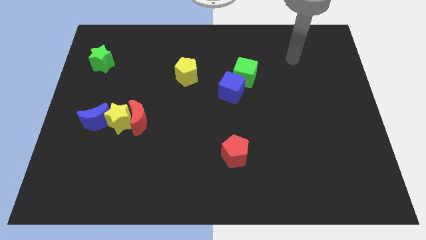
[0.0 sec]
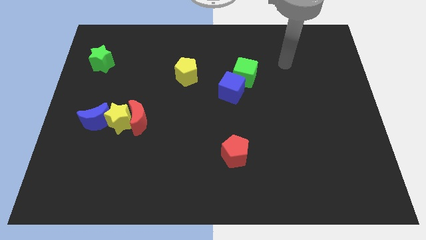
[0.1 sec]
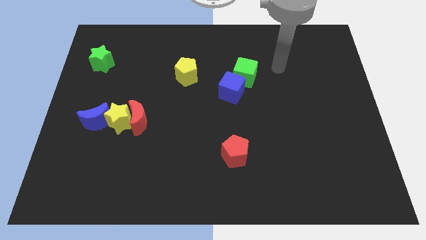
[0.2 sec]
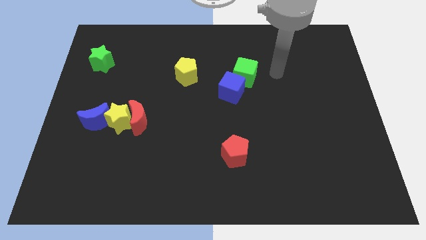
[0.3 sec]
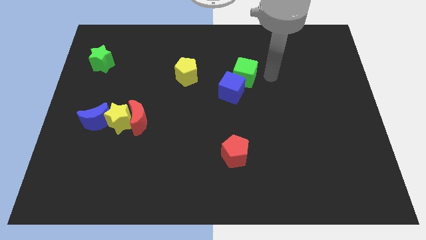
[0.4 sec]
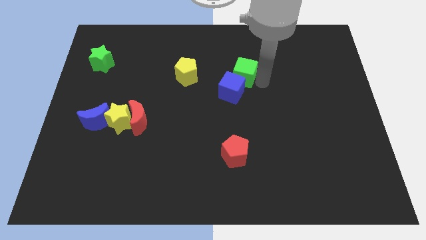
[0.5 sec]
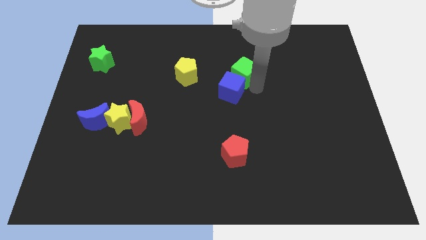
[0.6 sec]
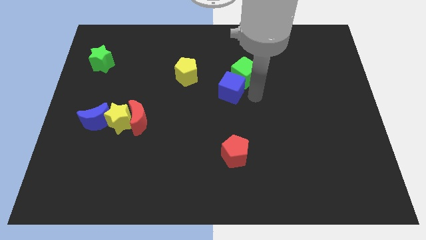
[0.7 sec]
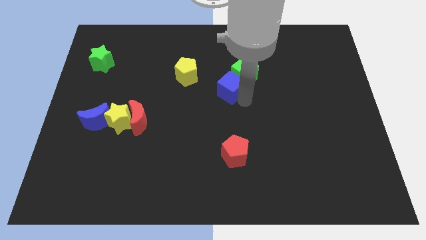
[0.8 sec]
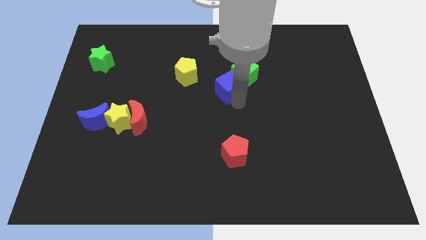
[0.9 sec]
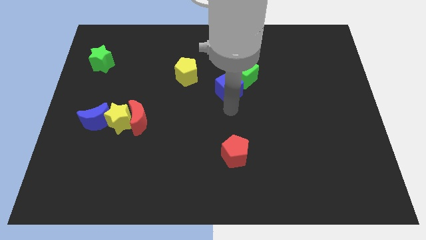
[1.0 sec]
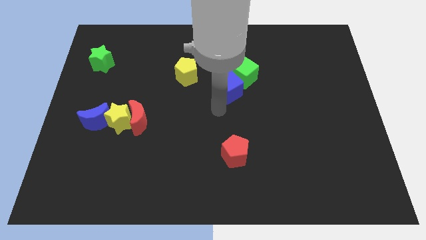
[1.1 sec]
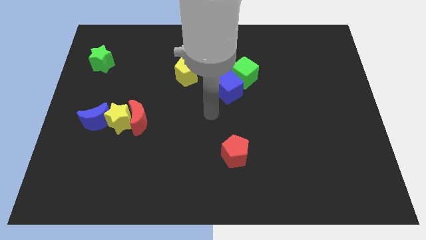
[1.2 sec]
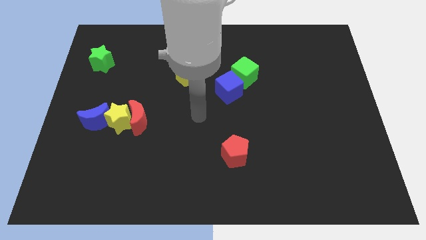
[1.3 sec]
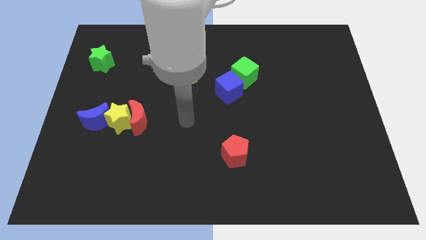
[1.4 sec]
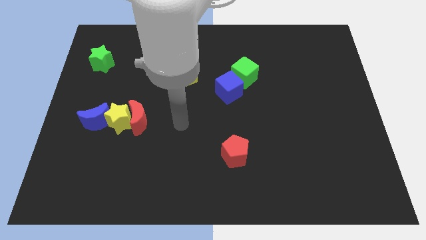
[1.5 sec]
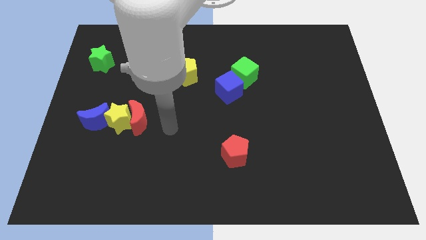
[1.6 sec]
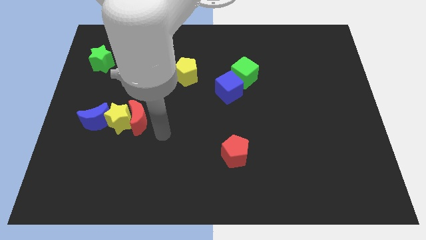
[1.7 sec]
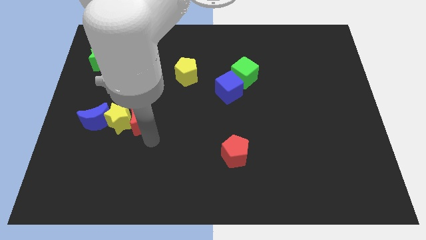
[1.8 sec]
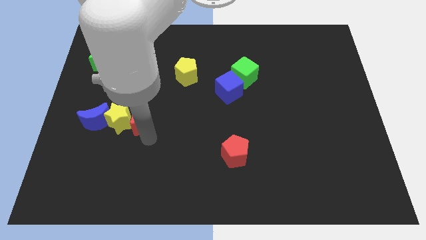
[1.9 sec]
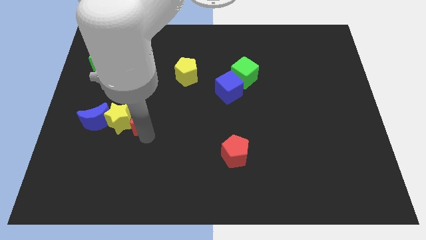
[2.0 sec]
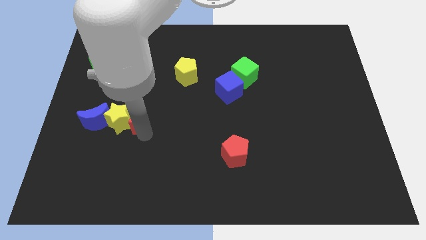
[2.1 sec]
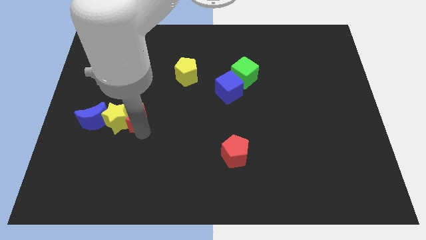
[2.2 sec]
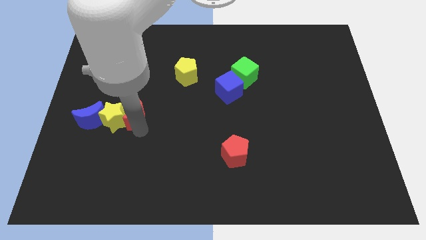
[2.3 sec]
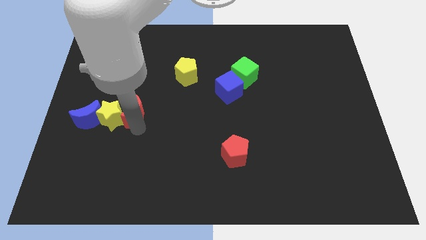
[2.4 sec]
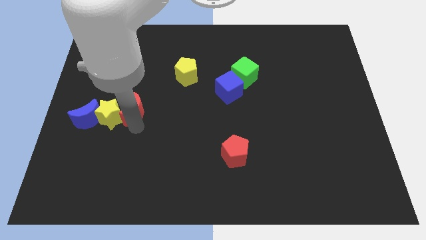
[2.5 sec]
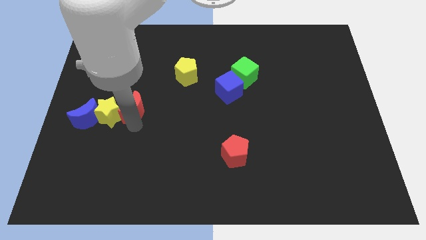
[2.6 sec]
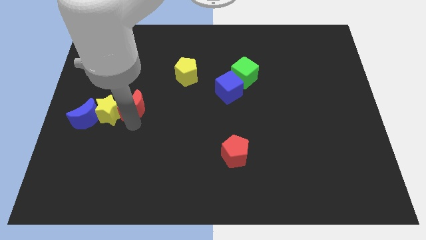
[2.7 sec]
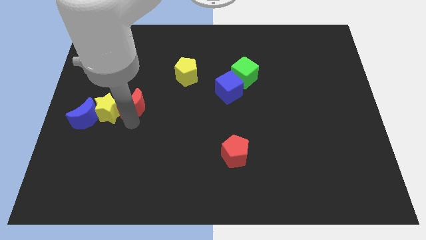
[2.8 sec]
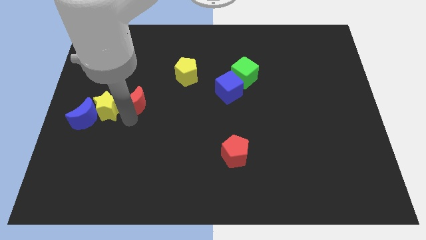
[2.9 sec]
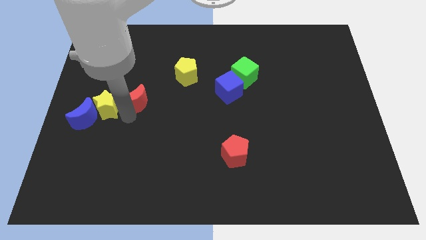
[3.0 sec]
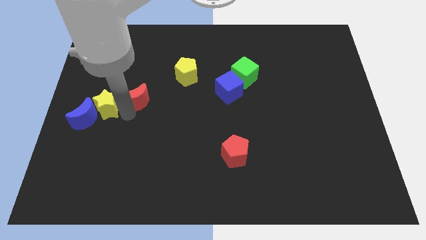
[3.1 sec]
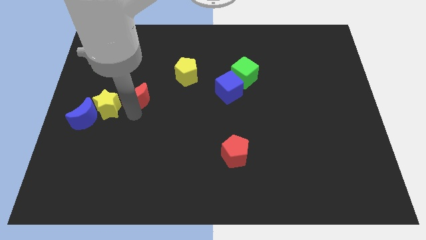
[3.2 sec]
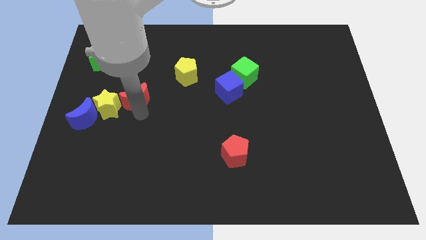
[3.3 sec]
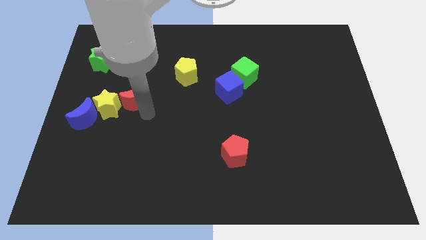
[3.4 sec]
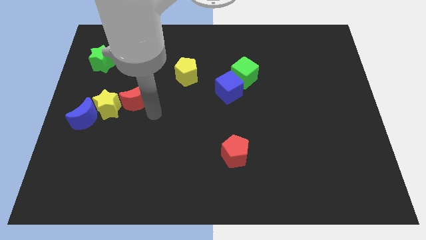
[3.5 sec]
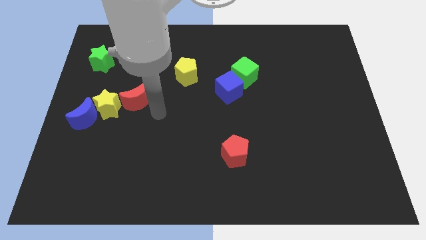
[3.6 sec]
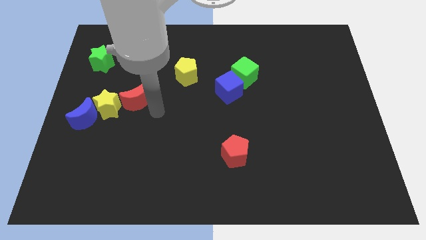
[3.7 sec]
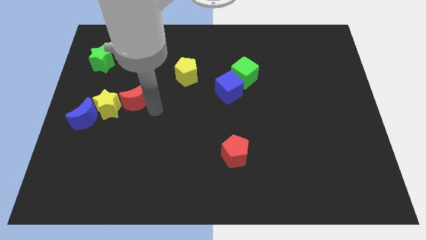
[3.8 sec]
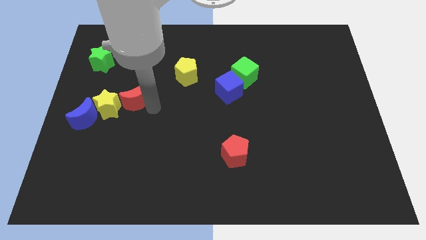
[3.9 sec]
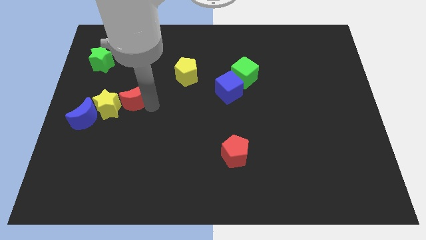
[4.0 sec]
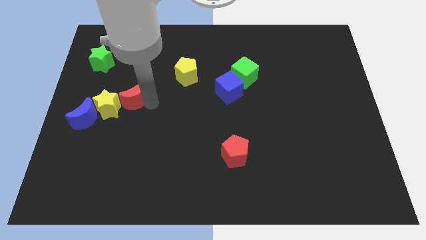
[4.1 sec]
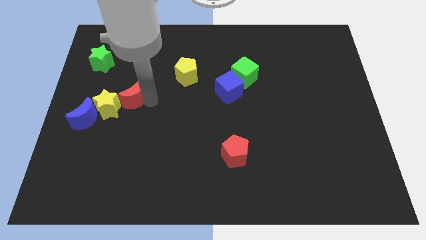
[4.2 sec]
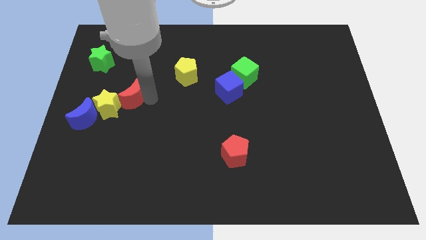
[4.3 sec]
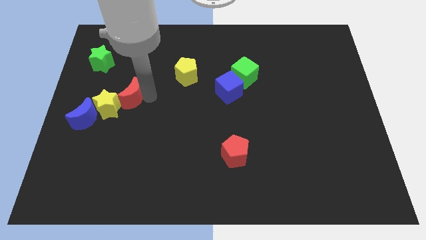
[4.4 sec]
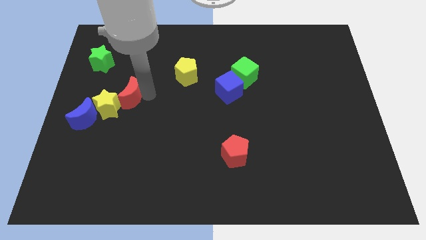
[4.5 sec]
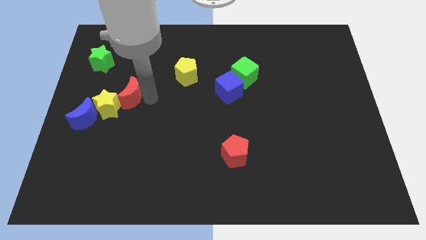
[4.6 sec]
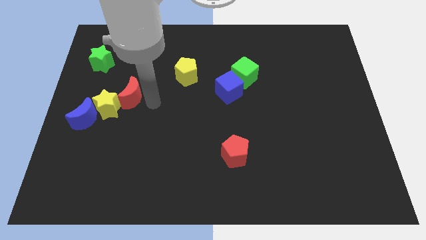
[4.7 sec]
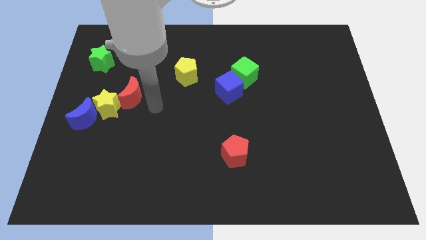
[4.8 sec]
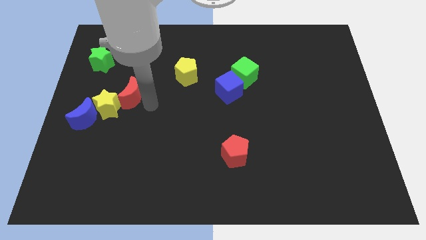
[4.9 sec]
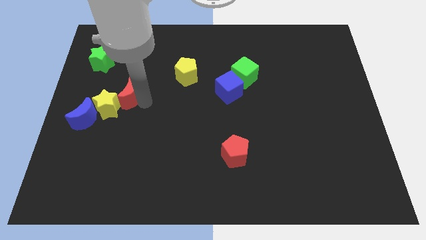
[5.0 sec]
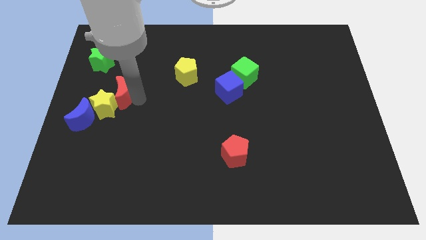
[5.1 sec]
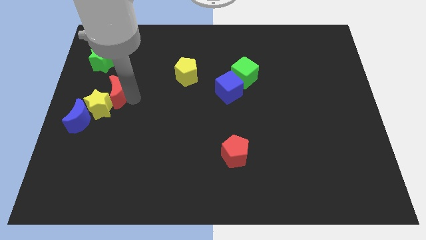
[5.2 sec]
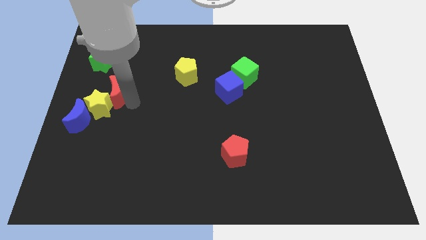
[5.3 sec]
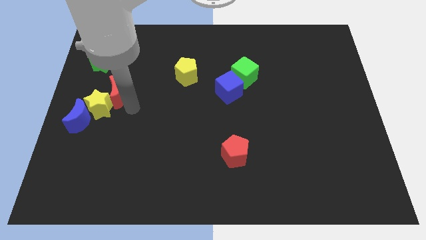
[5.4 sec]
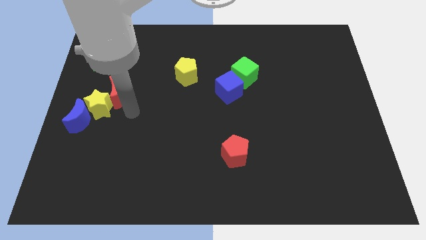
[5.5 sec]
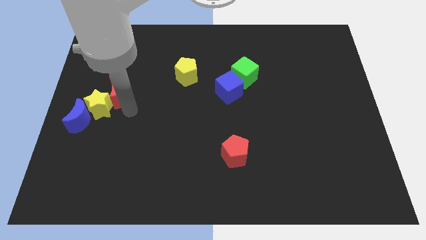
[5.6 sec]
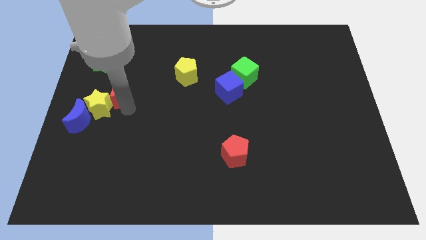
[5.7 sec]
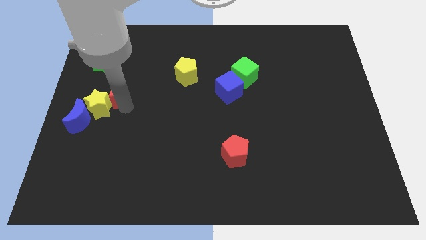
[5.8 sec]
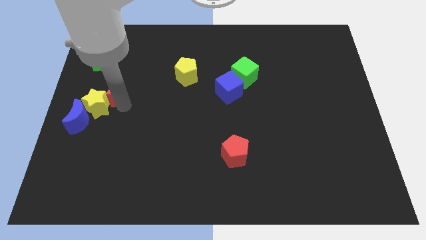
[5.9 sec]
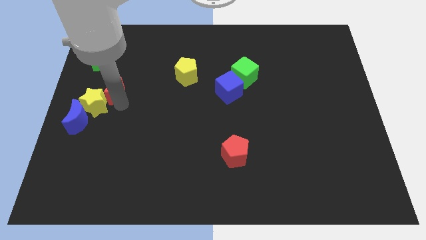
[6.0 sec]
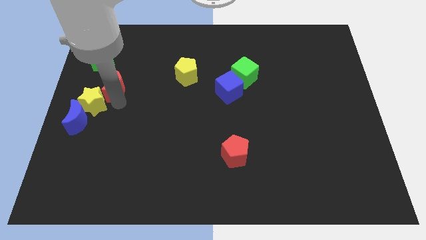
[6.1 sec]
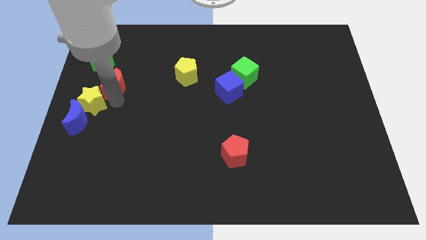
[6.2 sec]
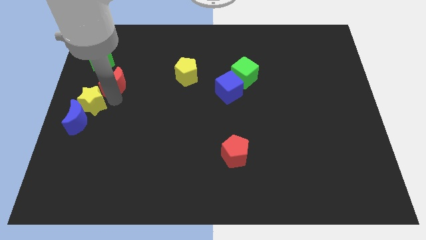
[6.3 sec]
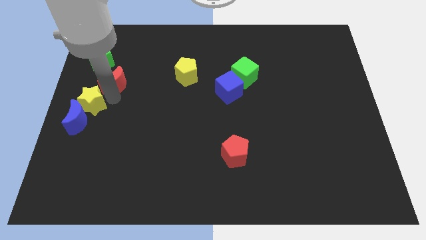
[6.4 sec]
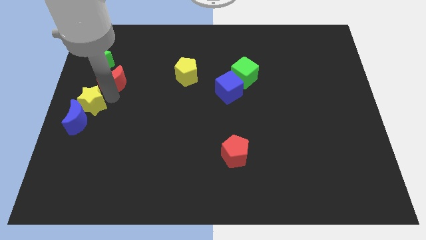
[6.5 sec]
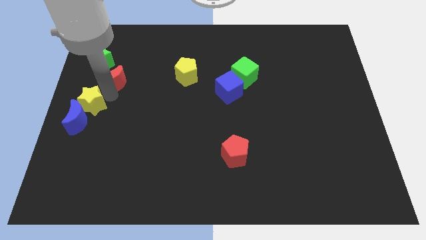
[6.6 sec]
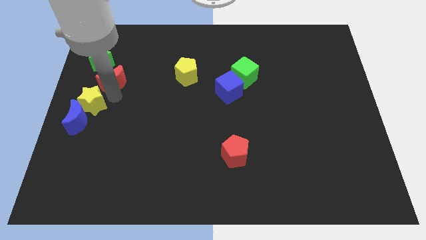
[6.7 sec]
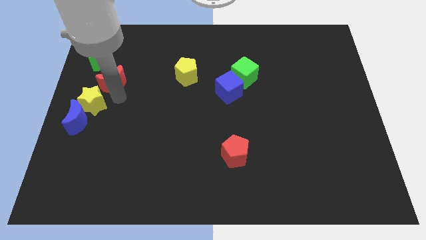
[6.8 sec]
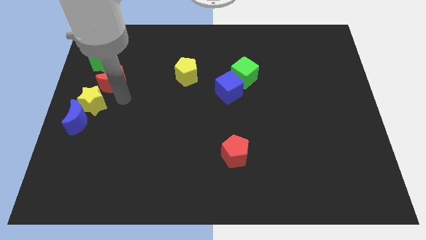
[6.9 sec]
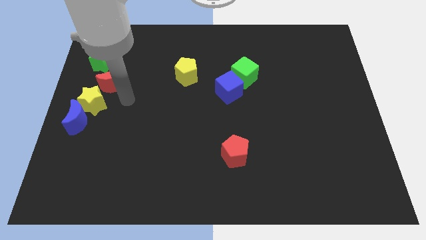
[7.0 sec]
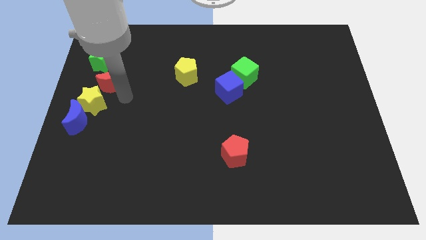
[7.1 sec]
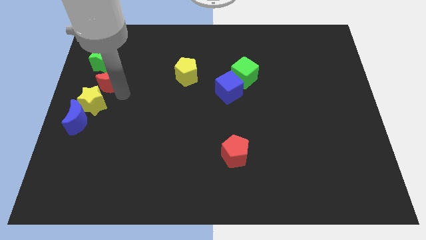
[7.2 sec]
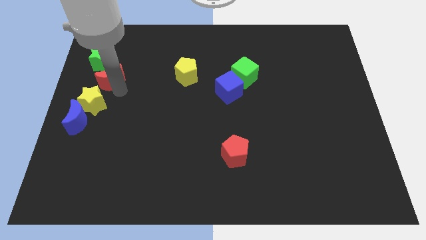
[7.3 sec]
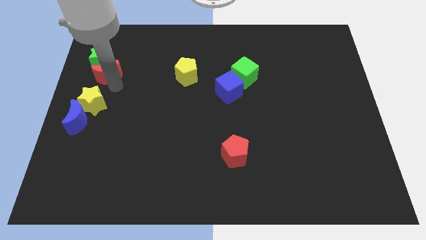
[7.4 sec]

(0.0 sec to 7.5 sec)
move the red moon close to the green star
